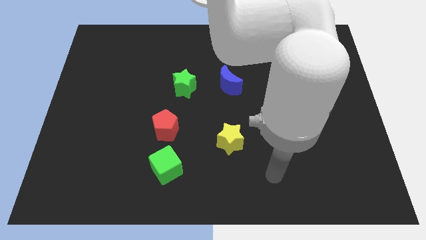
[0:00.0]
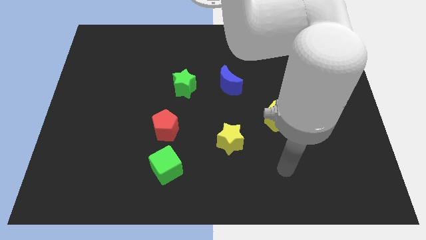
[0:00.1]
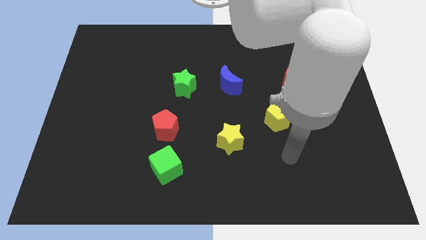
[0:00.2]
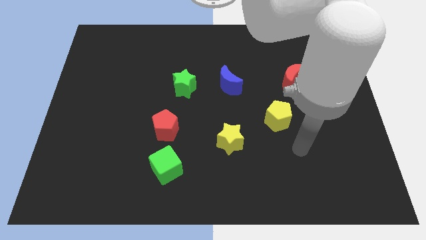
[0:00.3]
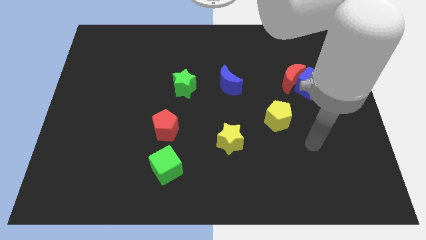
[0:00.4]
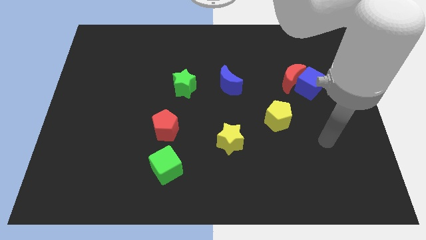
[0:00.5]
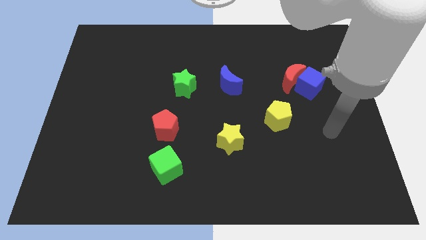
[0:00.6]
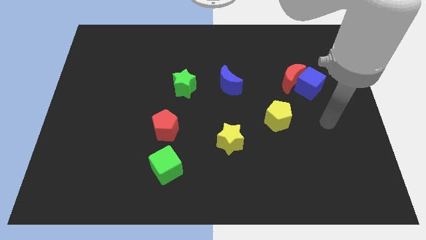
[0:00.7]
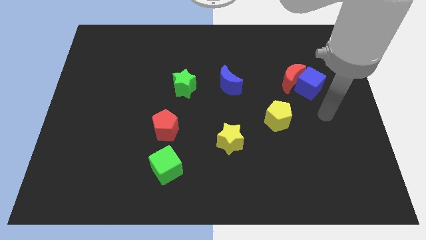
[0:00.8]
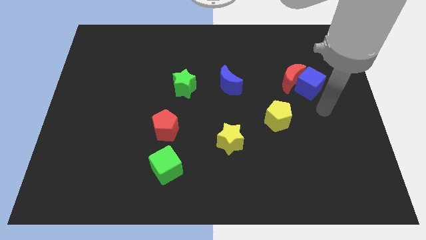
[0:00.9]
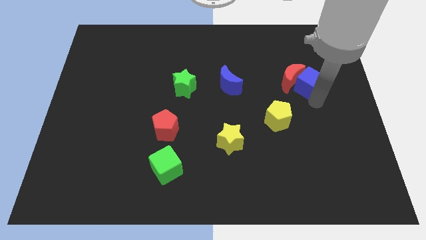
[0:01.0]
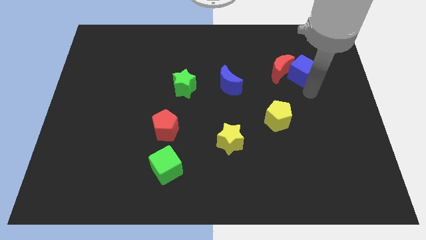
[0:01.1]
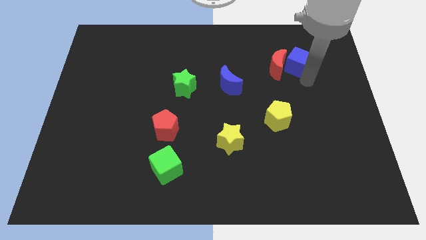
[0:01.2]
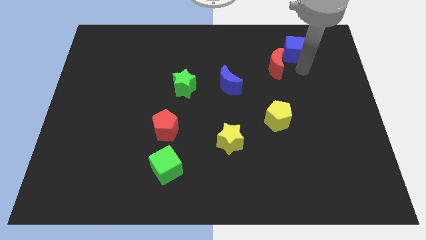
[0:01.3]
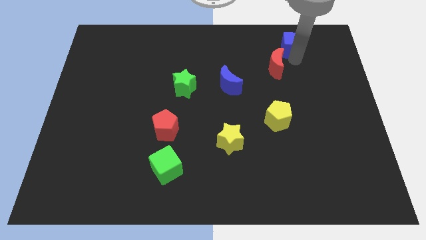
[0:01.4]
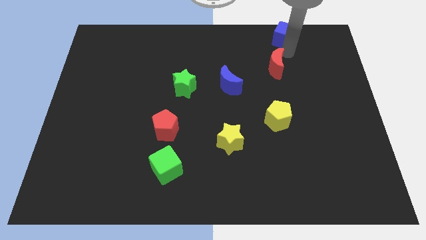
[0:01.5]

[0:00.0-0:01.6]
separate the red moon from the blue cube

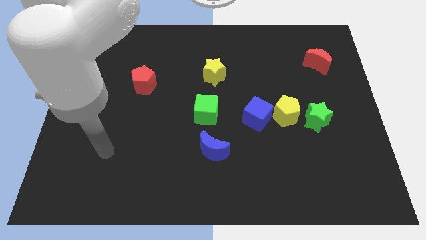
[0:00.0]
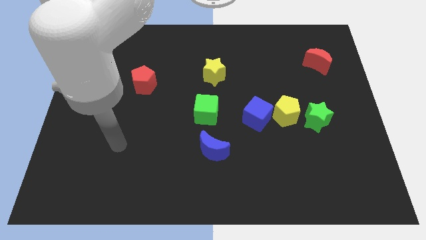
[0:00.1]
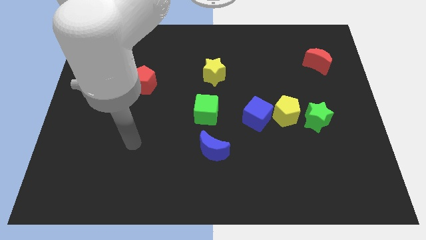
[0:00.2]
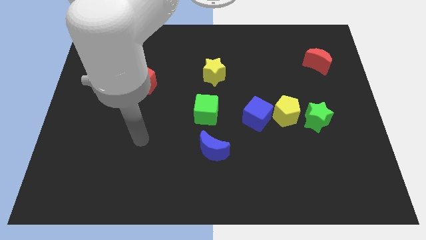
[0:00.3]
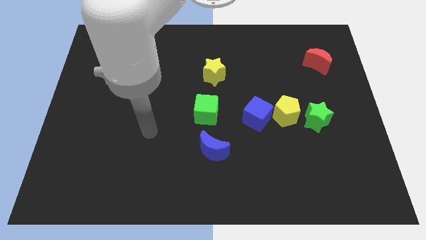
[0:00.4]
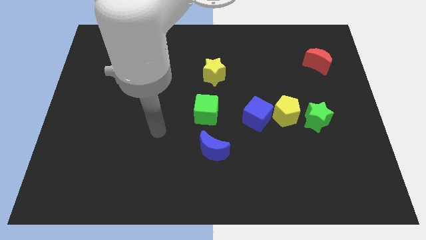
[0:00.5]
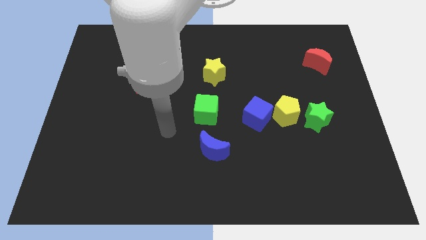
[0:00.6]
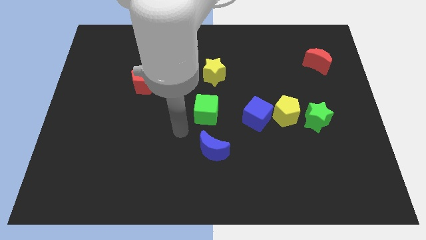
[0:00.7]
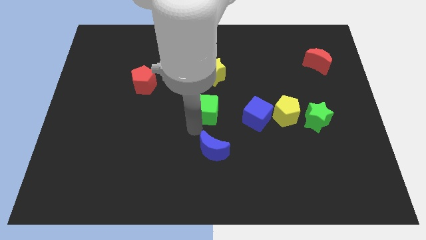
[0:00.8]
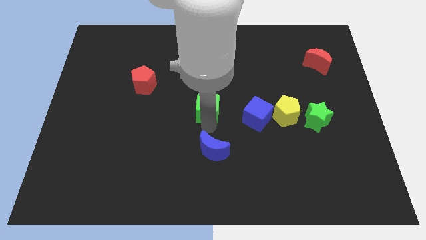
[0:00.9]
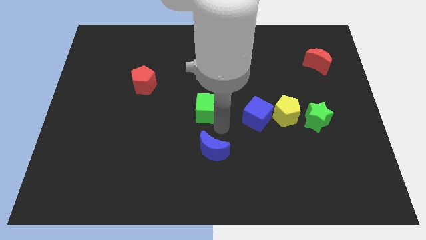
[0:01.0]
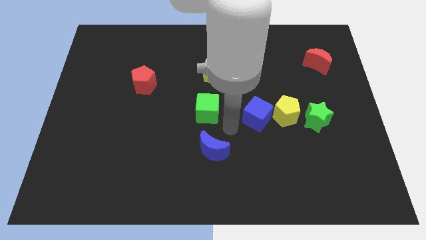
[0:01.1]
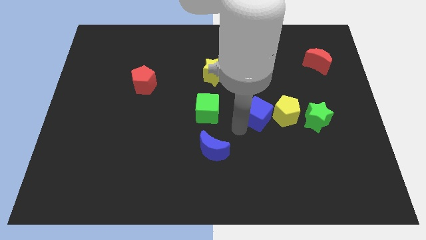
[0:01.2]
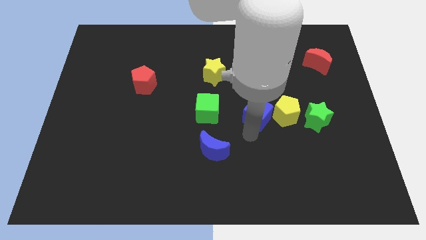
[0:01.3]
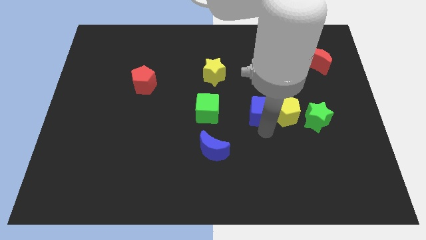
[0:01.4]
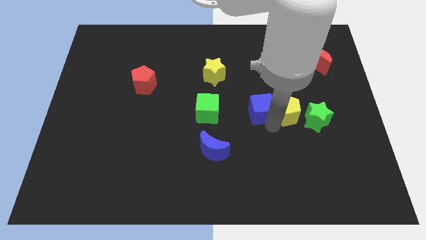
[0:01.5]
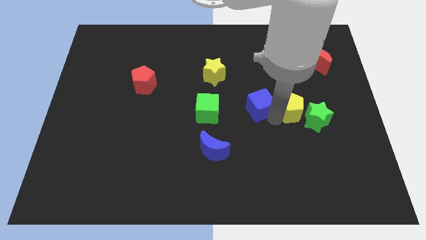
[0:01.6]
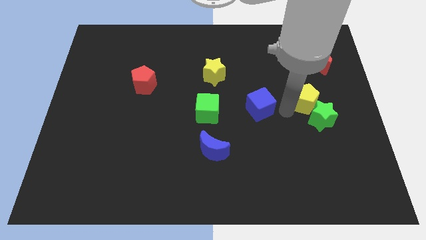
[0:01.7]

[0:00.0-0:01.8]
separate the blue cube from the yellow pentagon

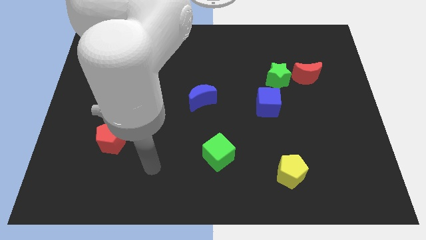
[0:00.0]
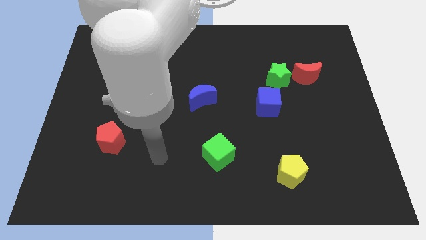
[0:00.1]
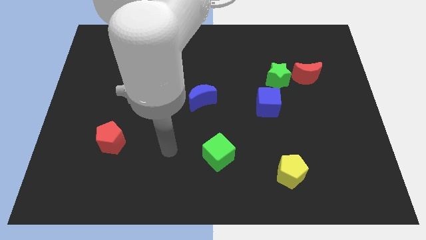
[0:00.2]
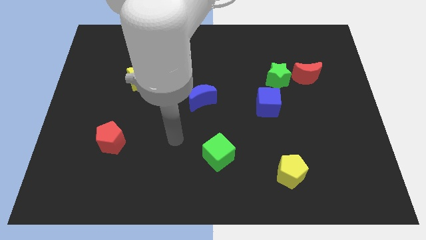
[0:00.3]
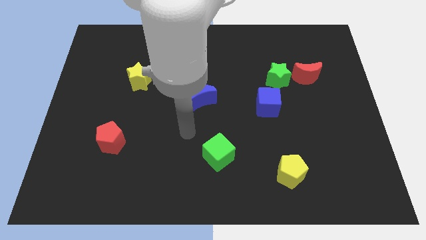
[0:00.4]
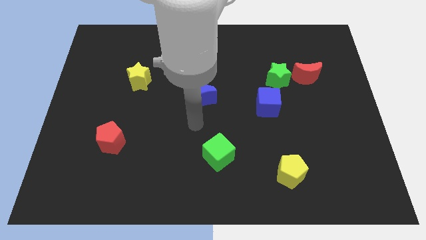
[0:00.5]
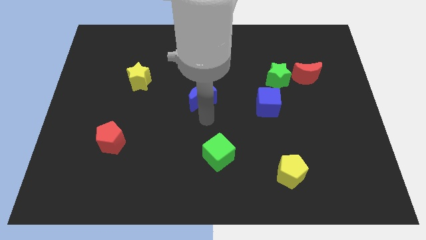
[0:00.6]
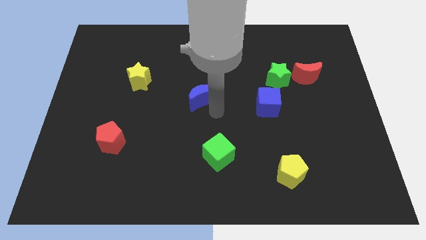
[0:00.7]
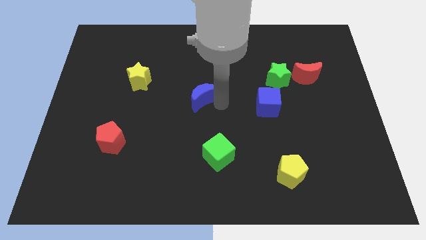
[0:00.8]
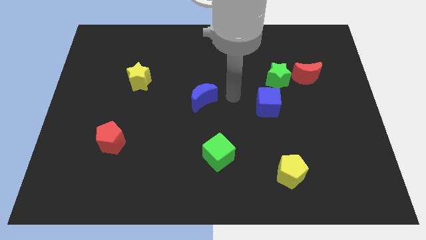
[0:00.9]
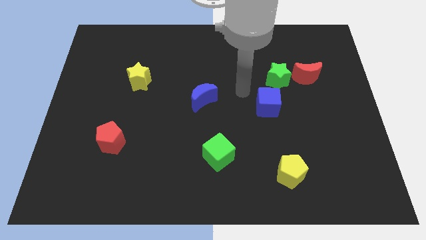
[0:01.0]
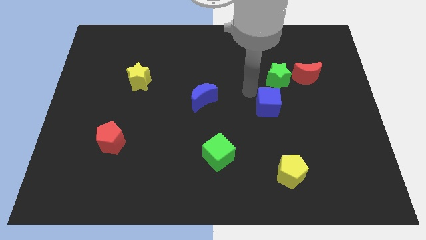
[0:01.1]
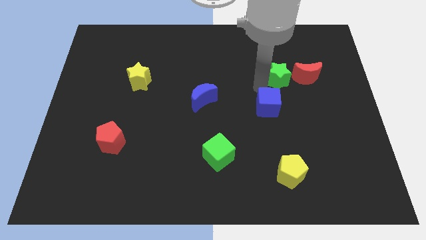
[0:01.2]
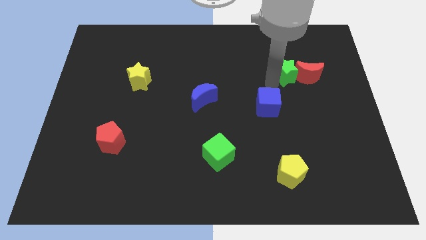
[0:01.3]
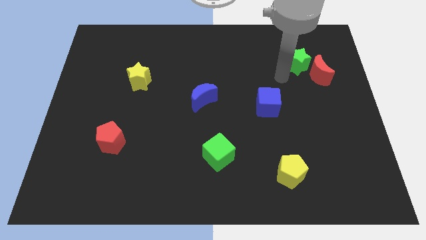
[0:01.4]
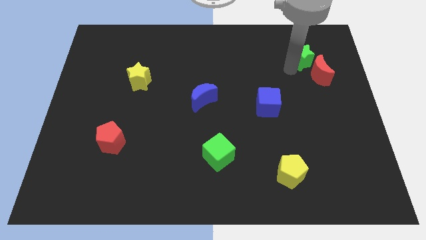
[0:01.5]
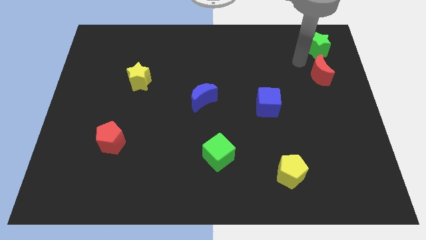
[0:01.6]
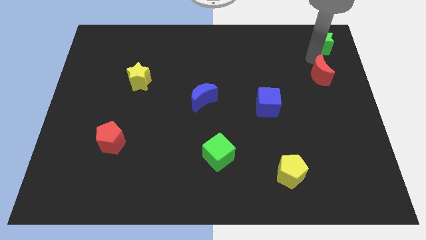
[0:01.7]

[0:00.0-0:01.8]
pull the red moon apart from the green star

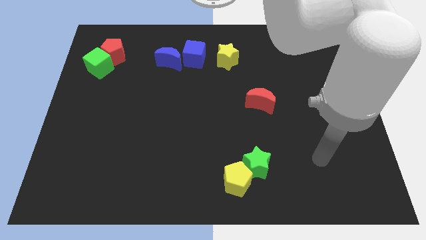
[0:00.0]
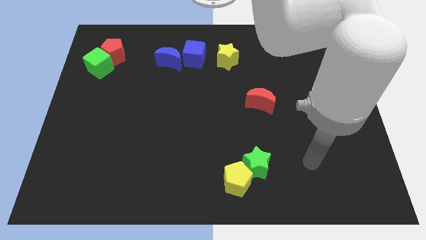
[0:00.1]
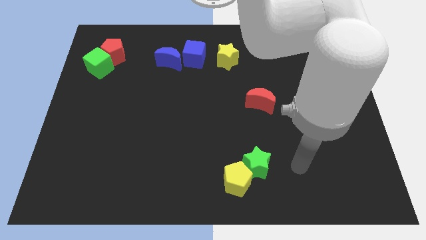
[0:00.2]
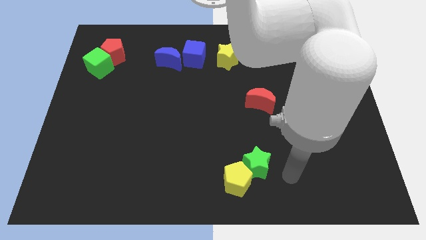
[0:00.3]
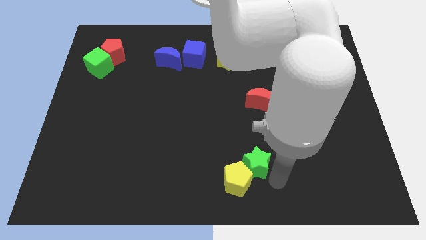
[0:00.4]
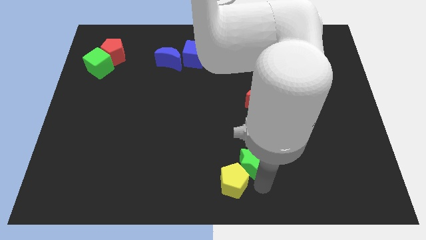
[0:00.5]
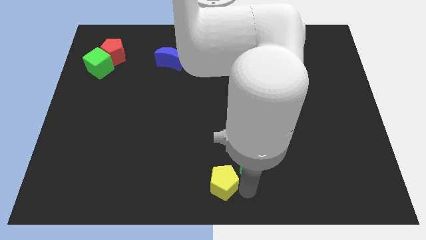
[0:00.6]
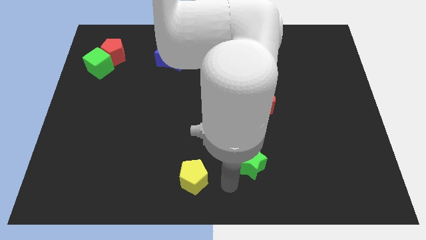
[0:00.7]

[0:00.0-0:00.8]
move the green star away from the yellow pentagon

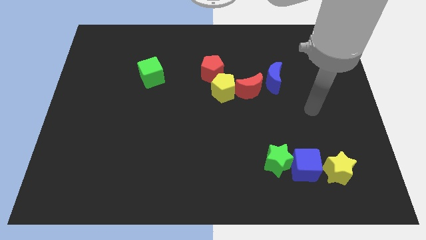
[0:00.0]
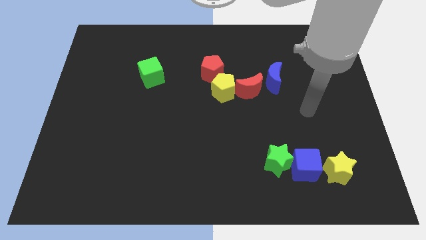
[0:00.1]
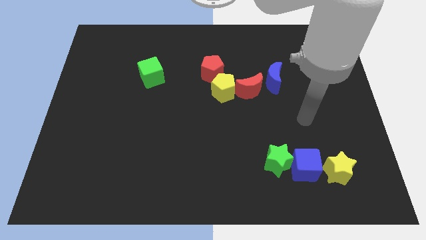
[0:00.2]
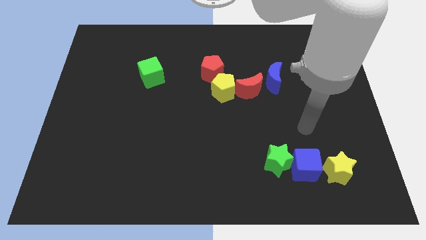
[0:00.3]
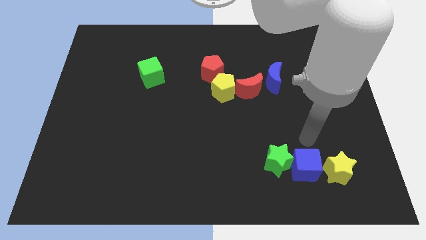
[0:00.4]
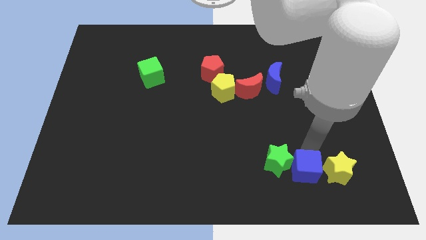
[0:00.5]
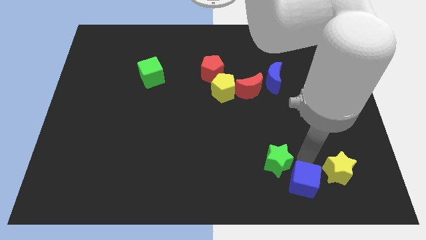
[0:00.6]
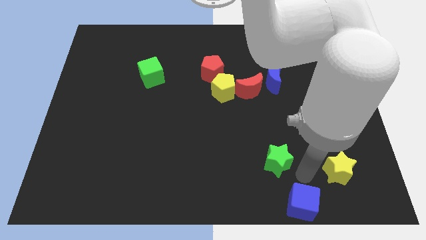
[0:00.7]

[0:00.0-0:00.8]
separate the green star from the blue cube

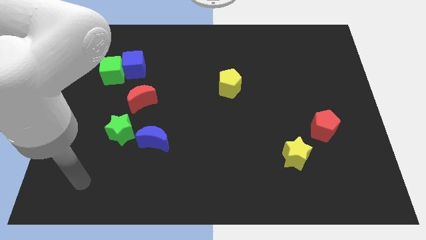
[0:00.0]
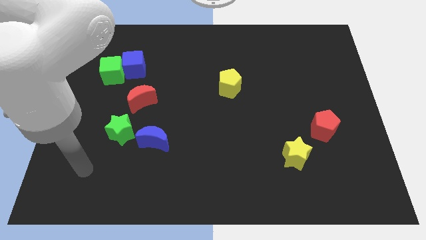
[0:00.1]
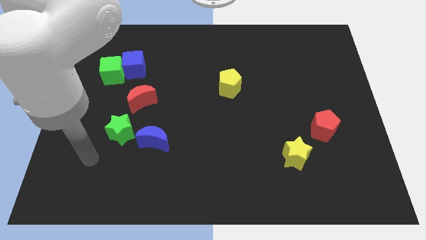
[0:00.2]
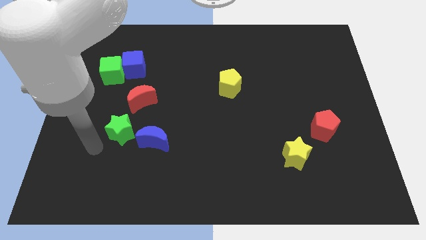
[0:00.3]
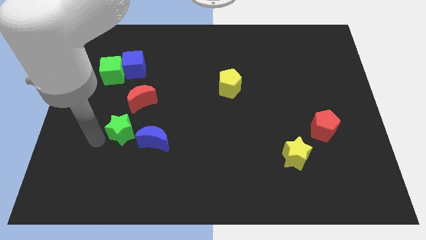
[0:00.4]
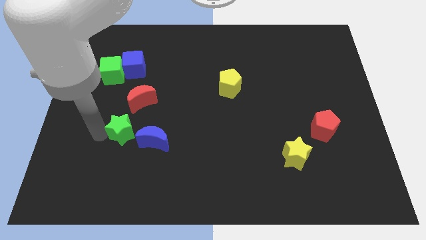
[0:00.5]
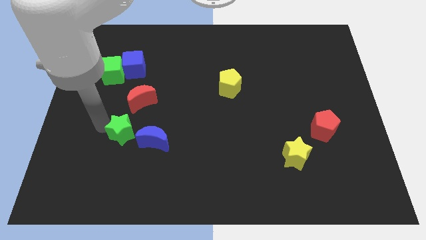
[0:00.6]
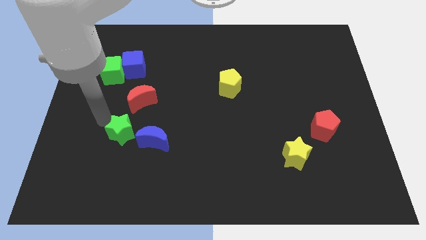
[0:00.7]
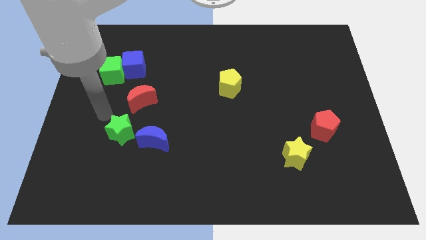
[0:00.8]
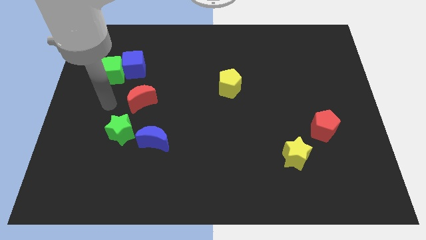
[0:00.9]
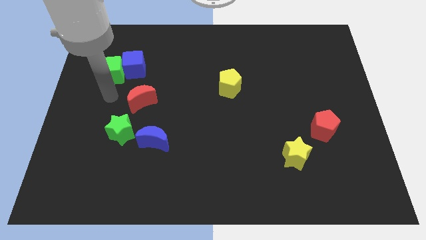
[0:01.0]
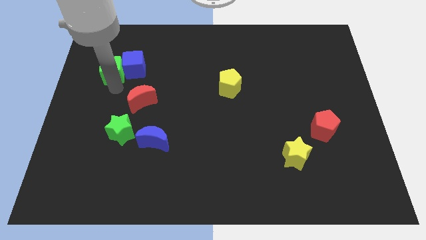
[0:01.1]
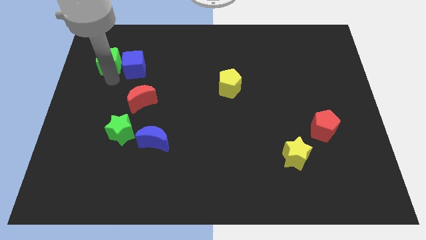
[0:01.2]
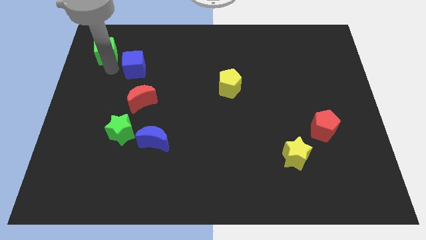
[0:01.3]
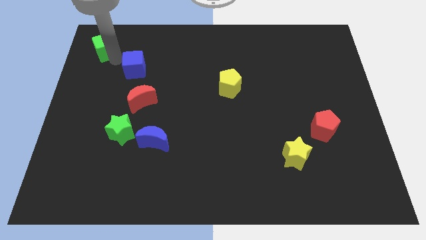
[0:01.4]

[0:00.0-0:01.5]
separate the blue cube from the green cube

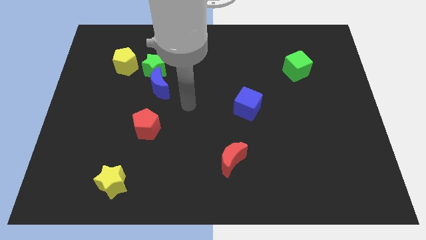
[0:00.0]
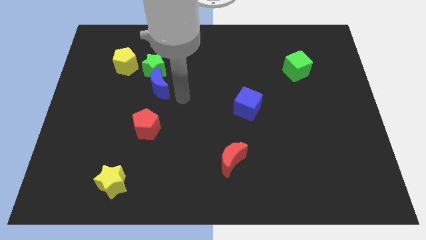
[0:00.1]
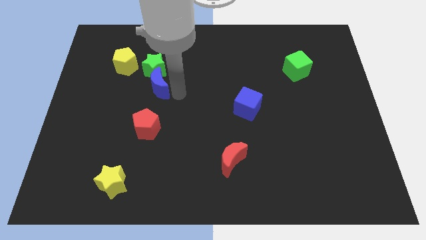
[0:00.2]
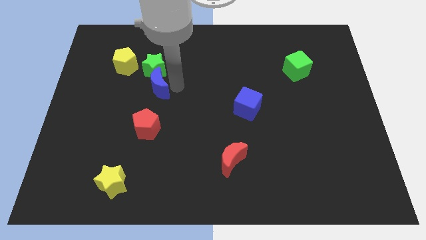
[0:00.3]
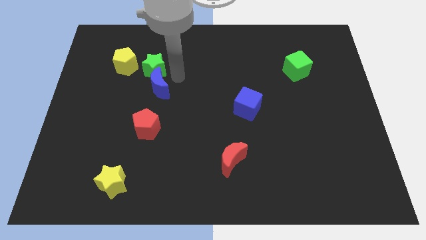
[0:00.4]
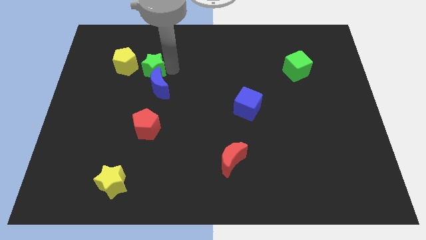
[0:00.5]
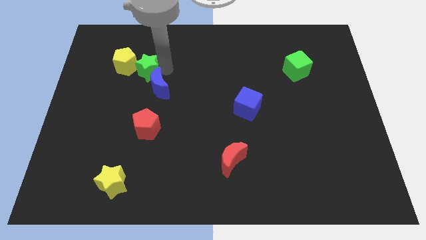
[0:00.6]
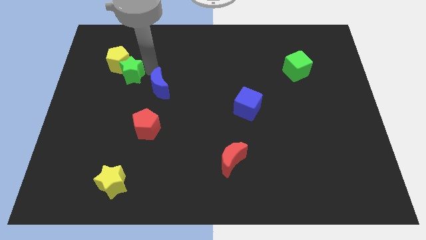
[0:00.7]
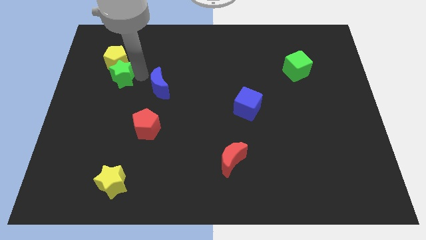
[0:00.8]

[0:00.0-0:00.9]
pull the blue moon apart from the green star

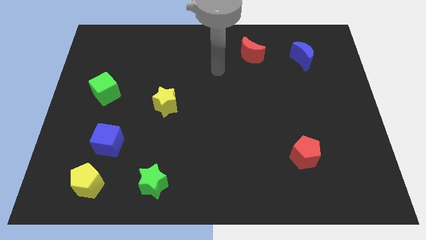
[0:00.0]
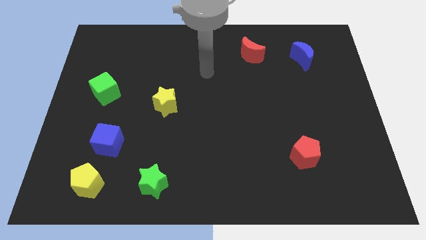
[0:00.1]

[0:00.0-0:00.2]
pull the blue cube apart from the yellow pentagon
